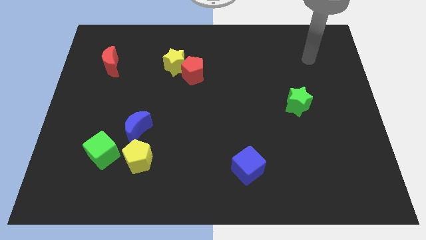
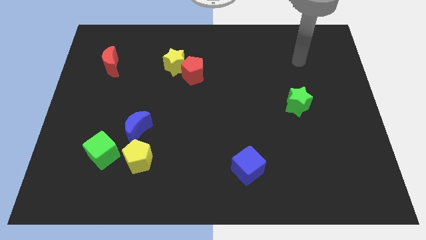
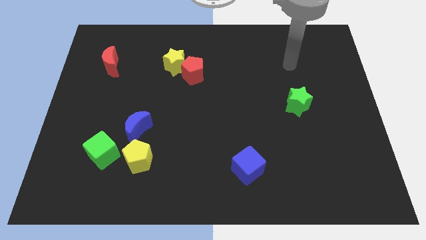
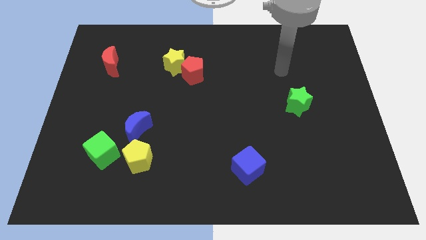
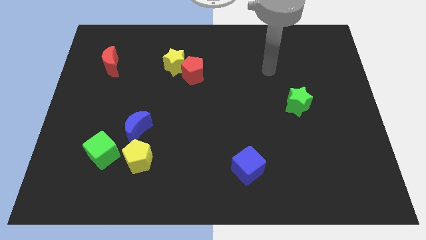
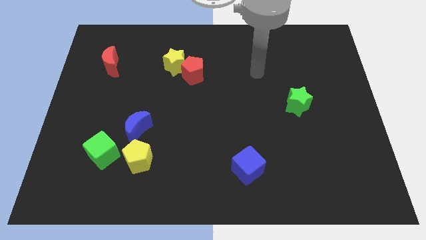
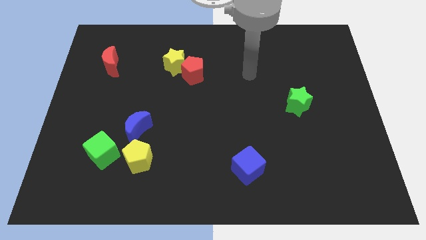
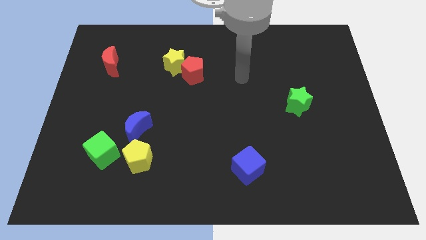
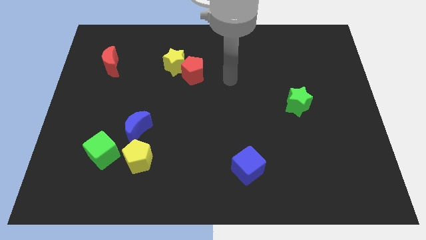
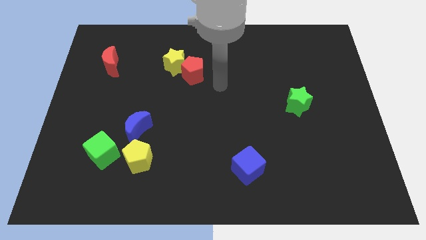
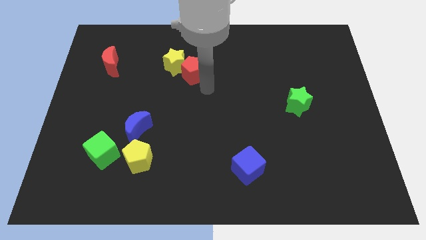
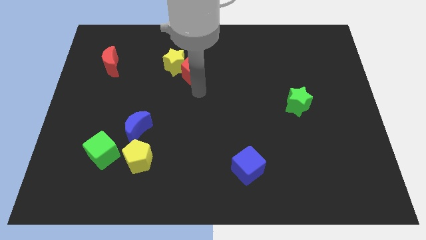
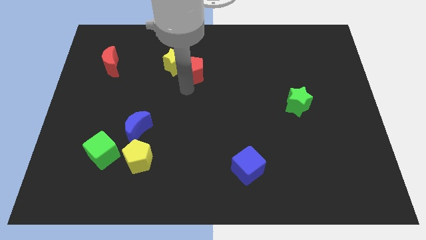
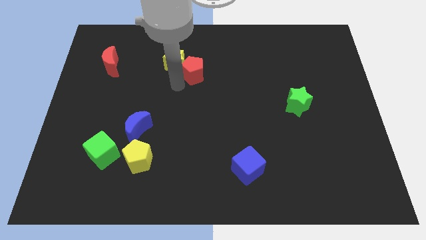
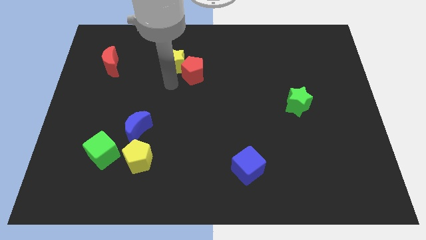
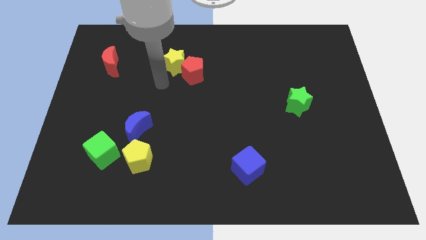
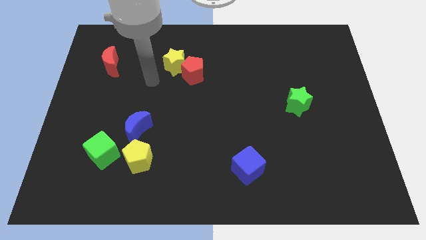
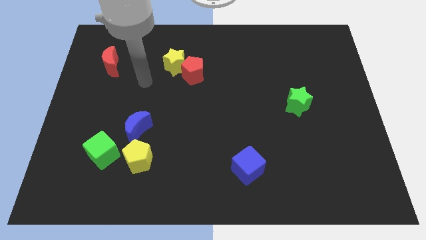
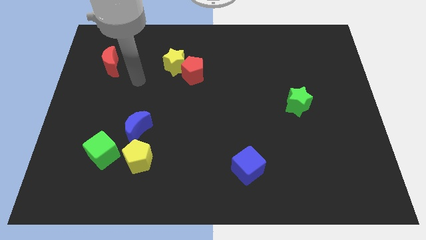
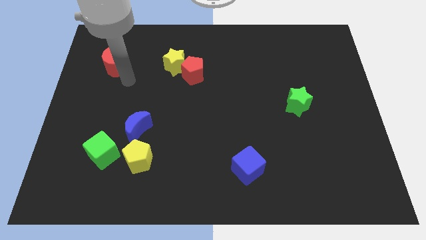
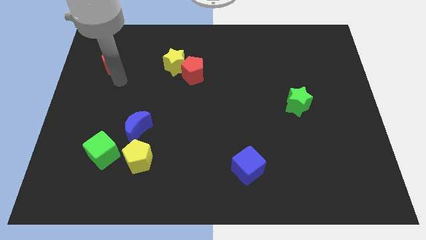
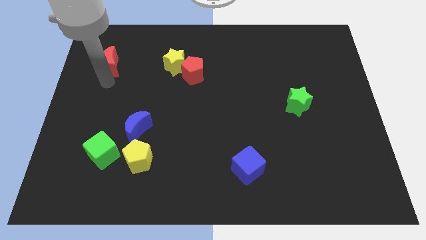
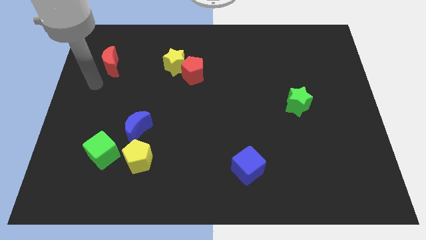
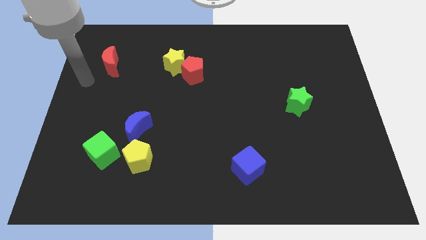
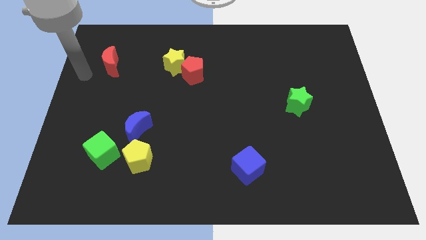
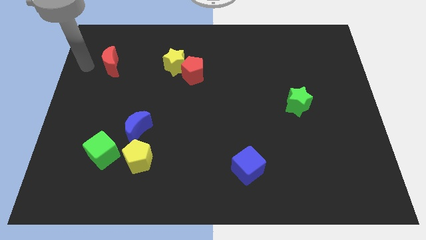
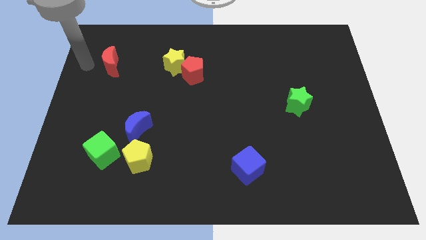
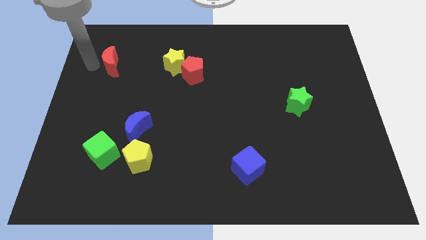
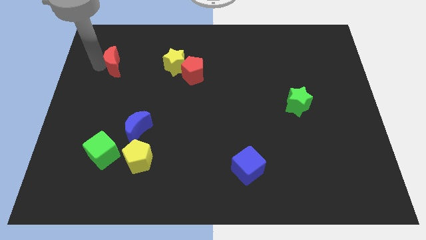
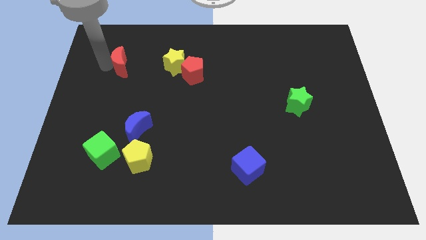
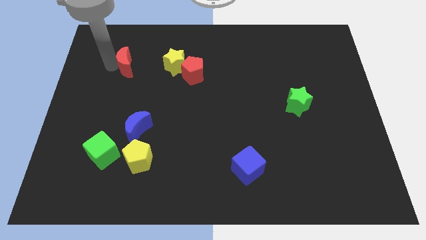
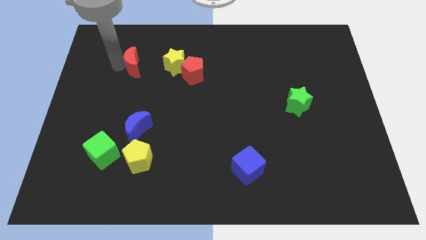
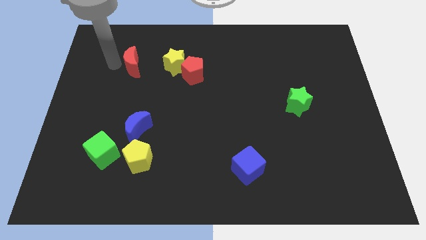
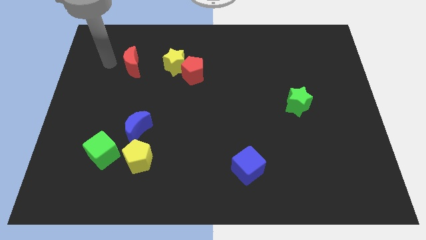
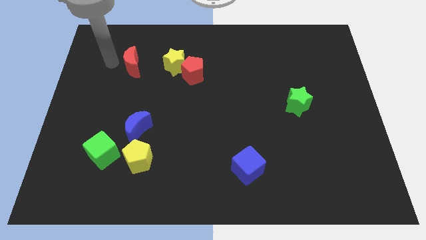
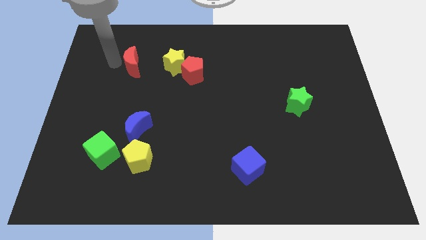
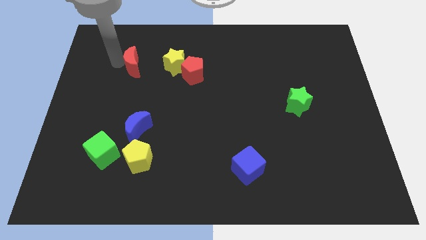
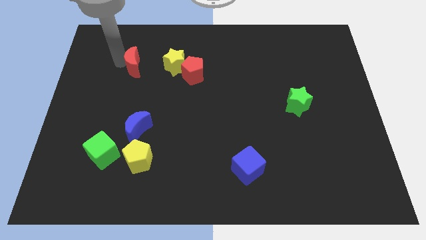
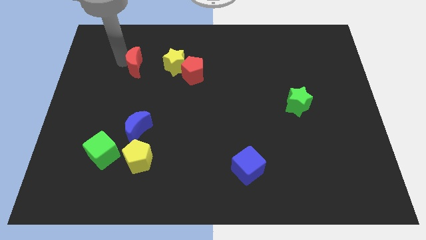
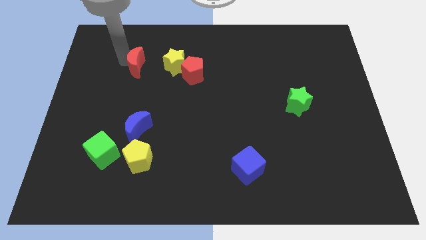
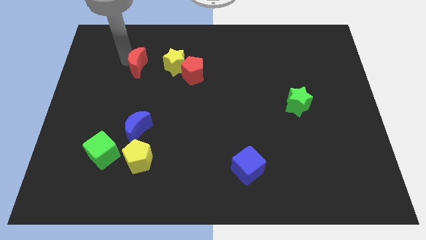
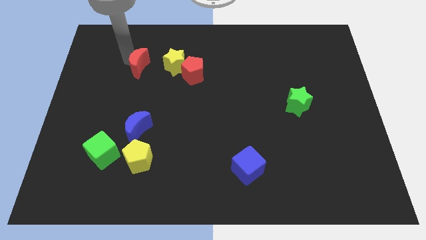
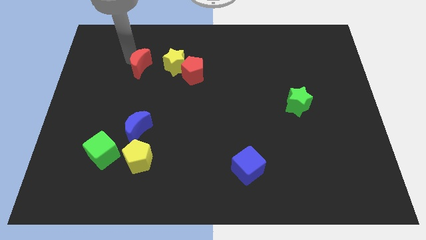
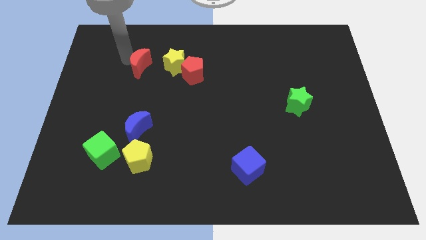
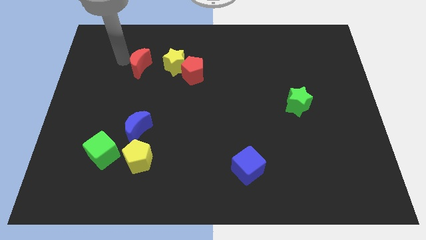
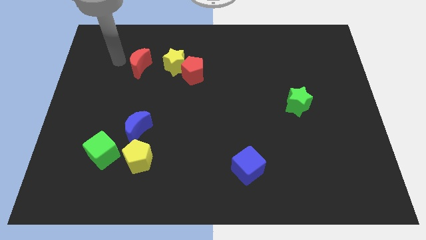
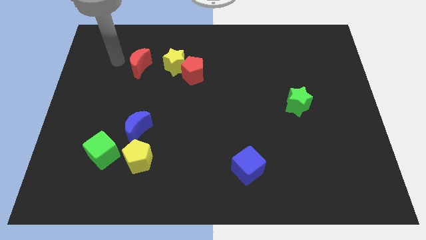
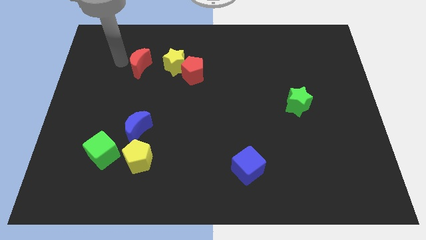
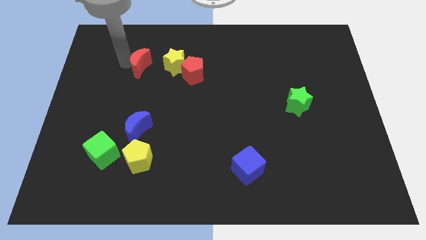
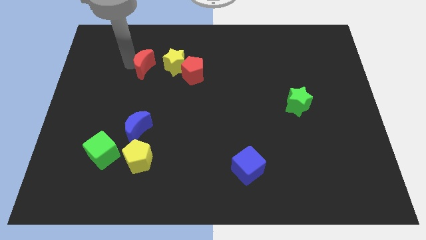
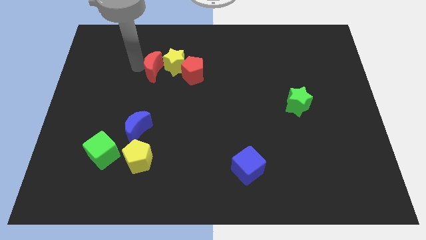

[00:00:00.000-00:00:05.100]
push the red moon to the yellow star

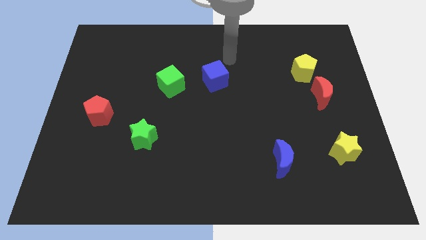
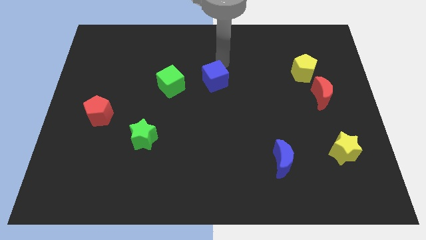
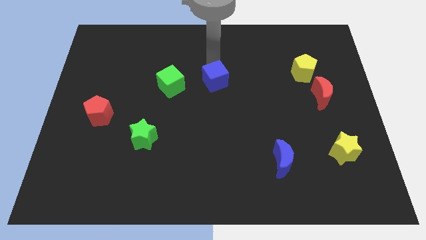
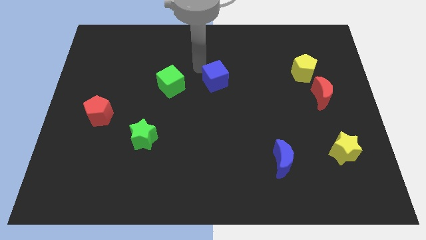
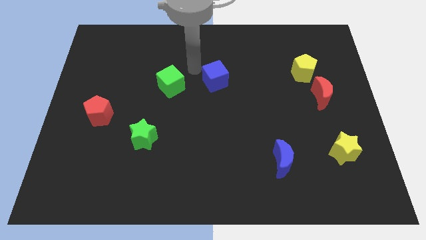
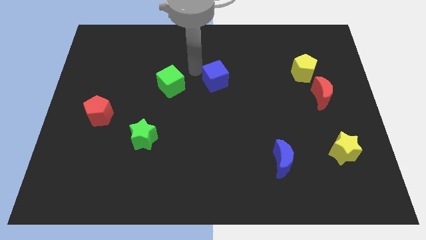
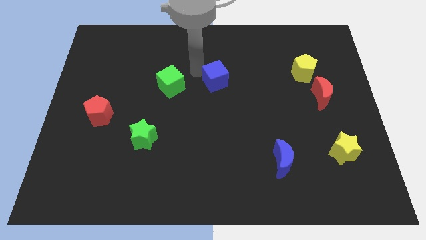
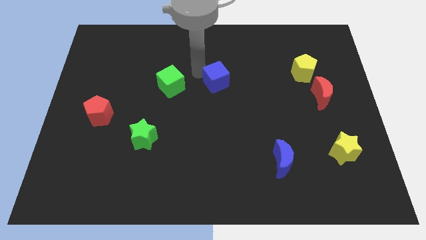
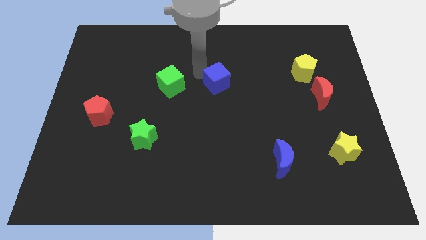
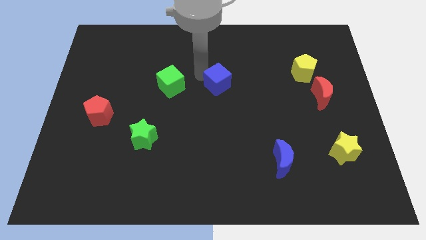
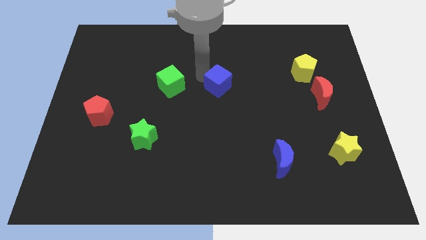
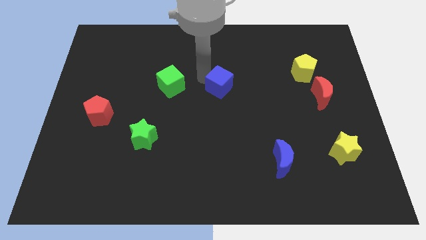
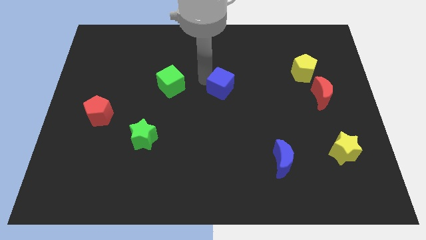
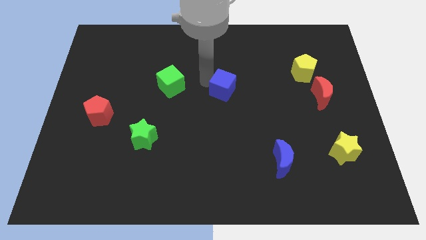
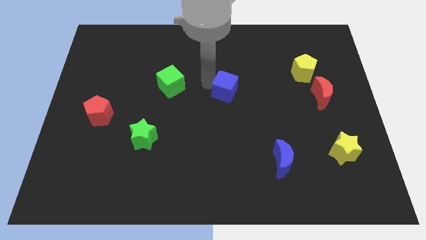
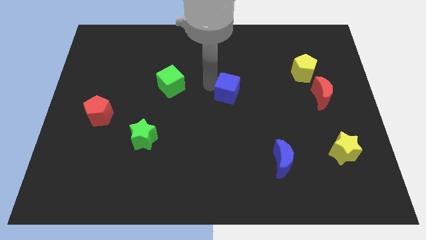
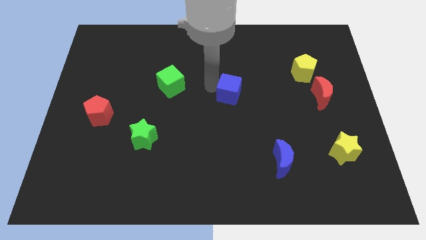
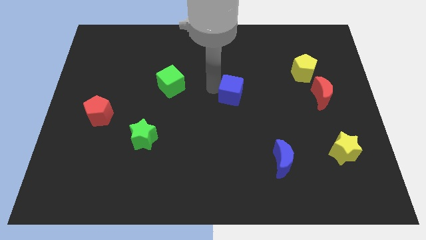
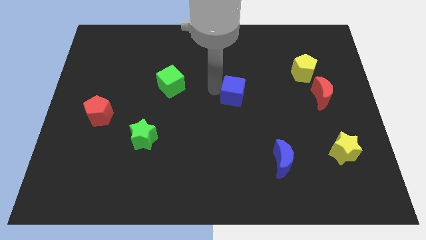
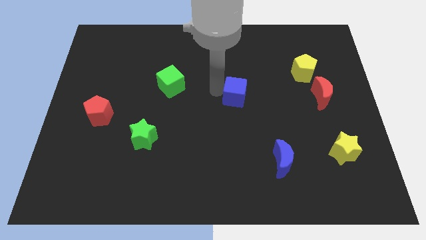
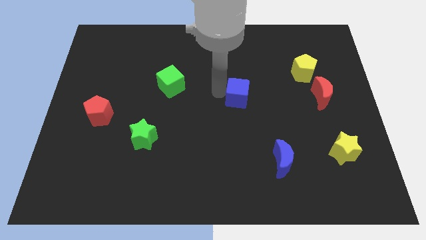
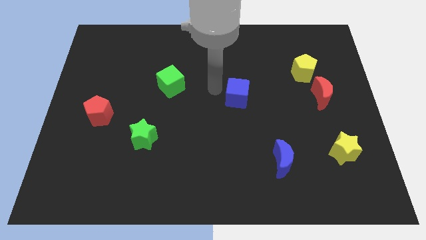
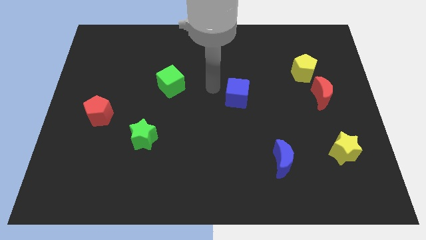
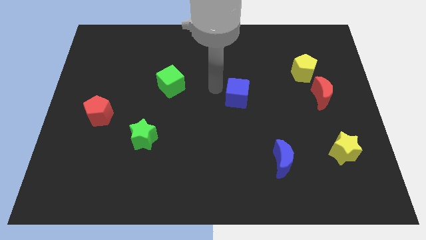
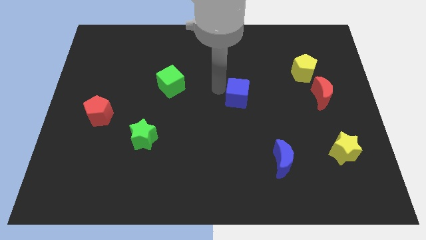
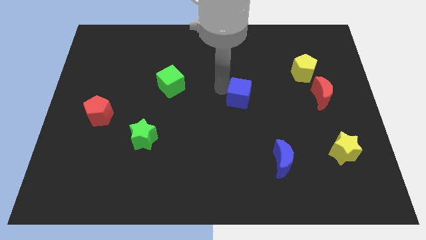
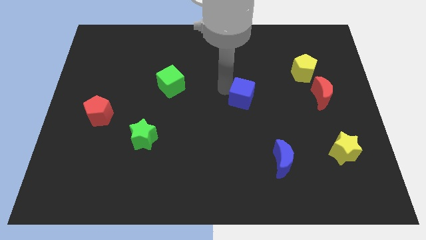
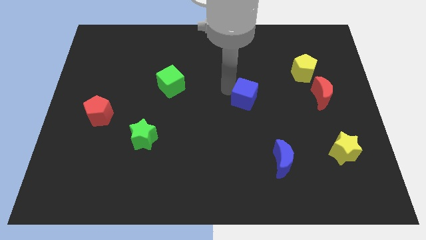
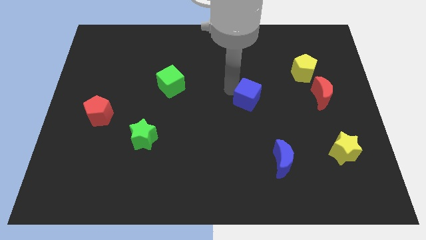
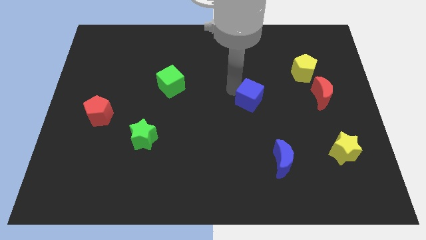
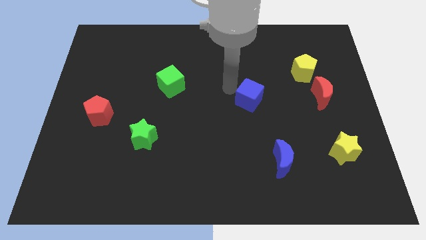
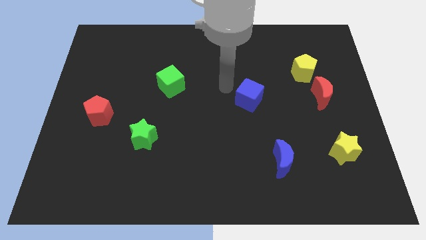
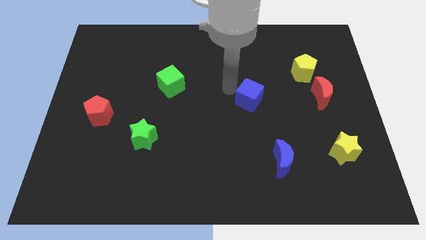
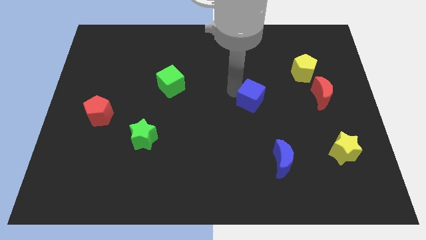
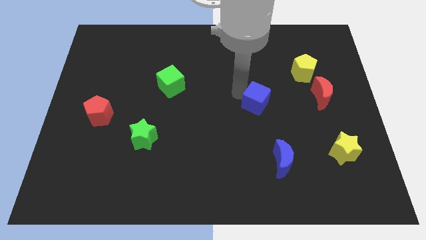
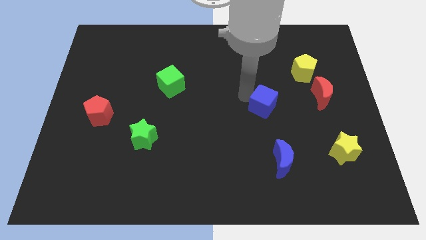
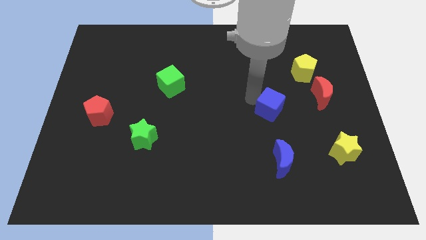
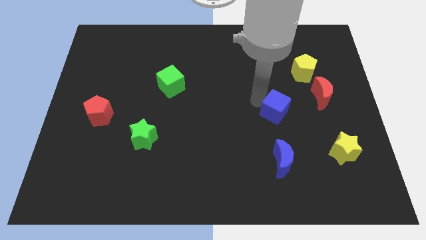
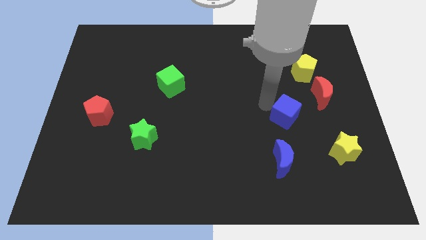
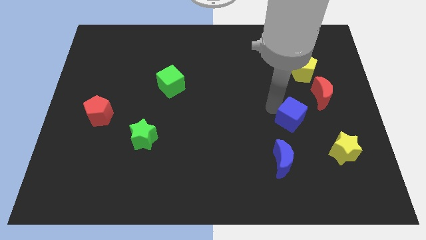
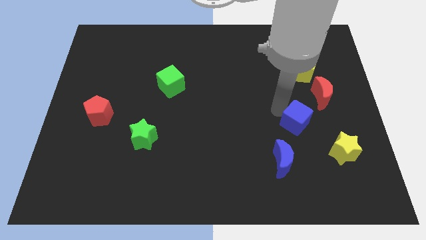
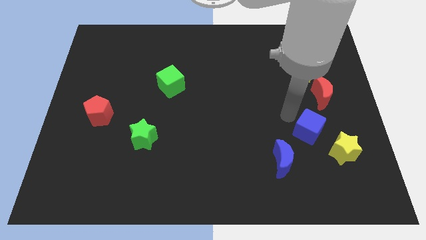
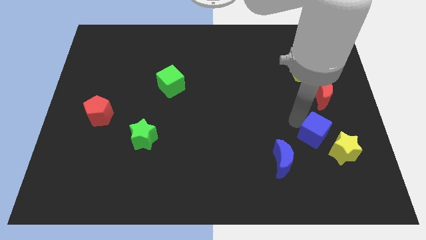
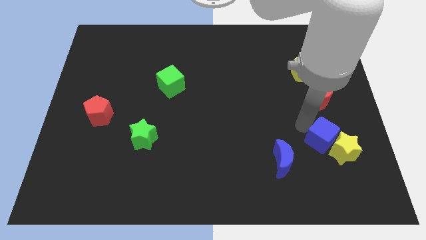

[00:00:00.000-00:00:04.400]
move the blue cube next to the yellow star
